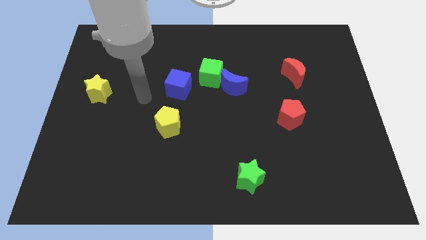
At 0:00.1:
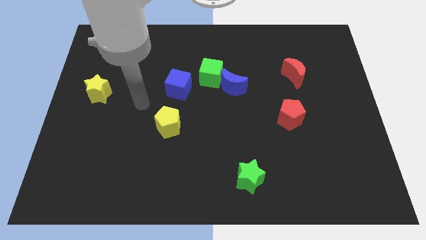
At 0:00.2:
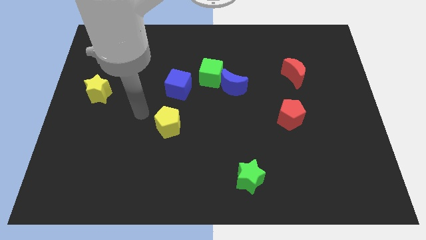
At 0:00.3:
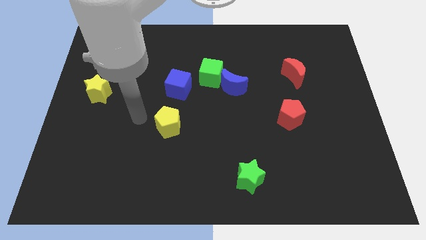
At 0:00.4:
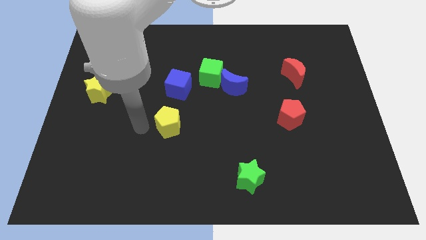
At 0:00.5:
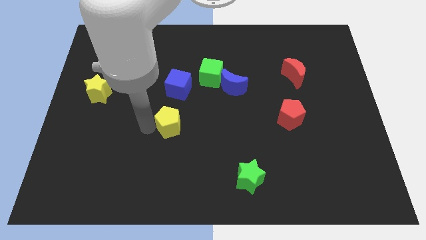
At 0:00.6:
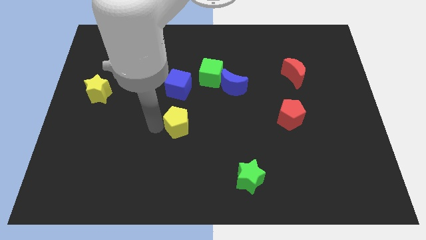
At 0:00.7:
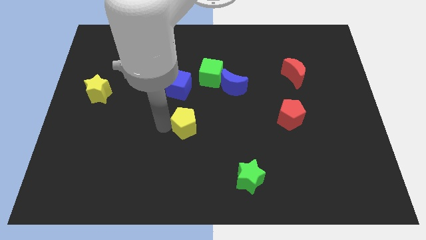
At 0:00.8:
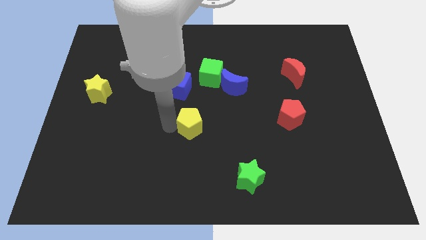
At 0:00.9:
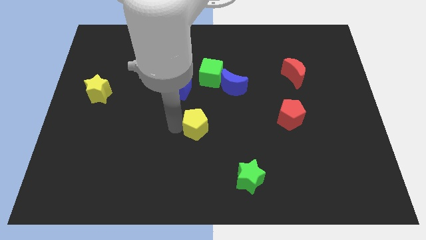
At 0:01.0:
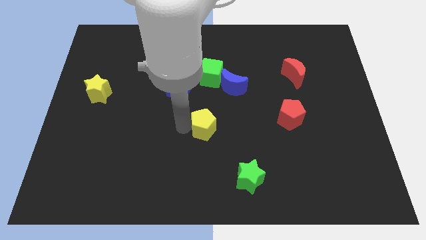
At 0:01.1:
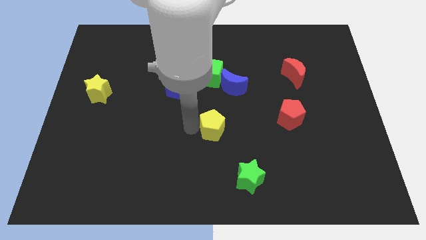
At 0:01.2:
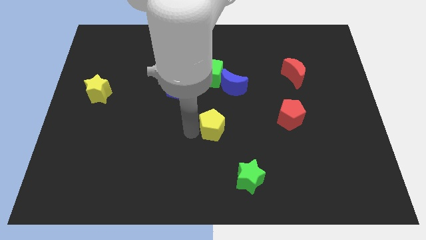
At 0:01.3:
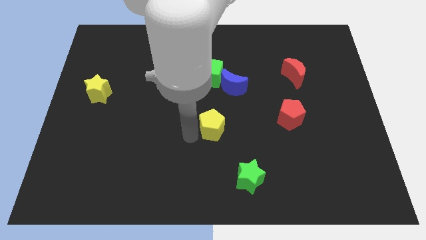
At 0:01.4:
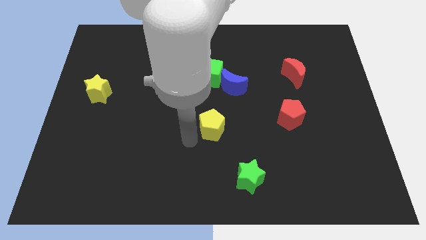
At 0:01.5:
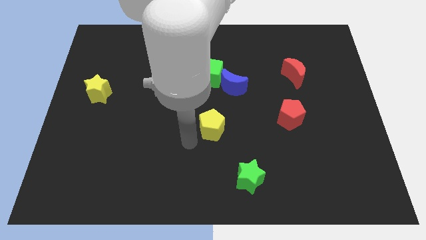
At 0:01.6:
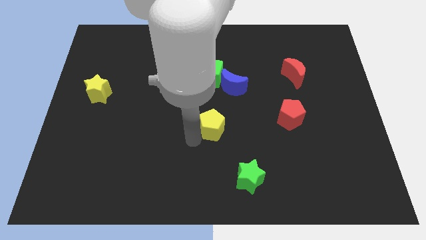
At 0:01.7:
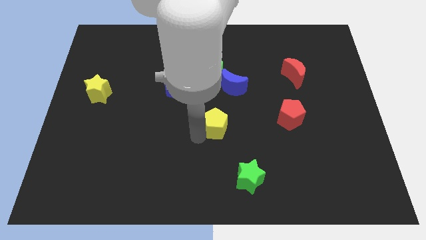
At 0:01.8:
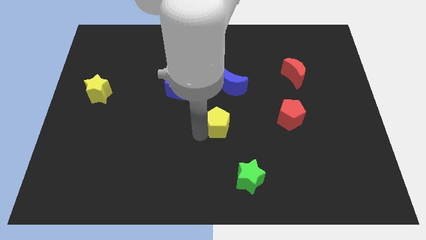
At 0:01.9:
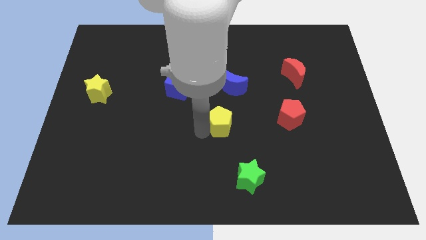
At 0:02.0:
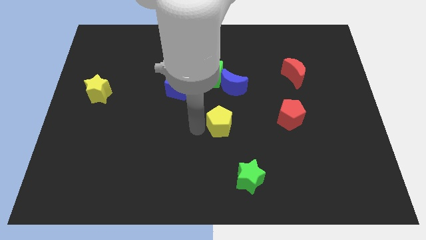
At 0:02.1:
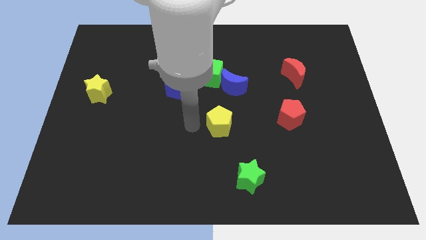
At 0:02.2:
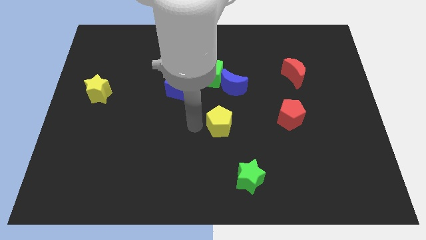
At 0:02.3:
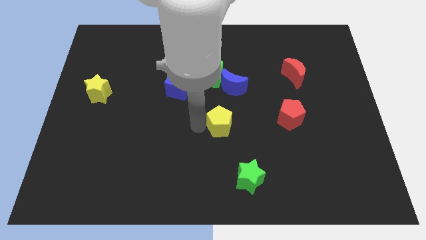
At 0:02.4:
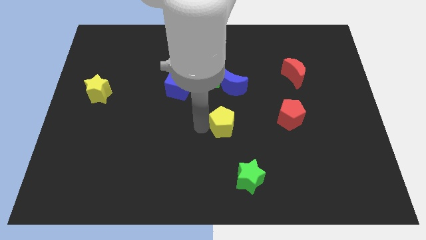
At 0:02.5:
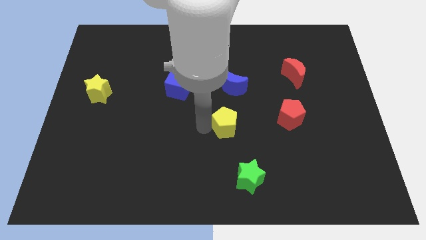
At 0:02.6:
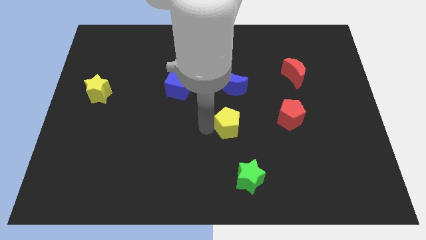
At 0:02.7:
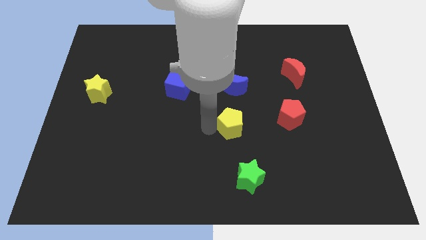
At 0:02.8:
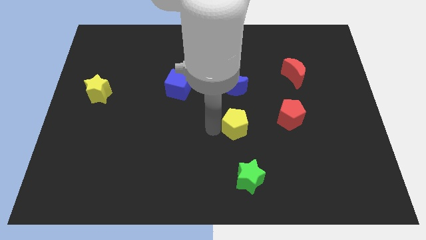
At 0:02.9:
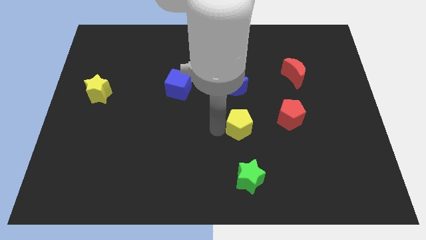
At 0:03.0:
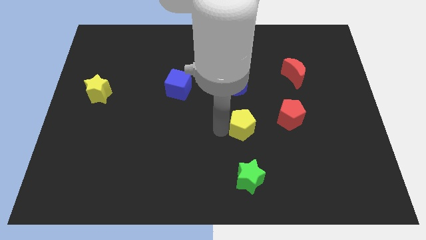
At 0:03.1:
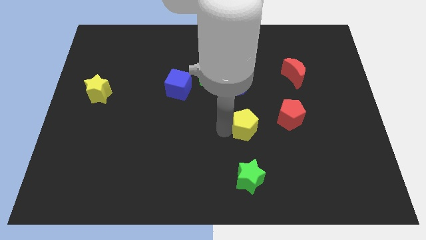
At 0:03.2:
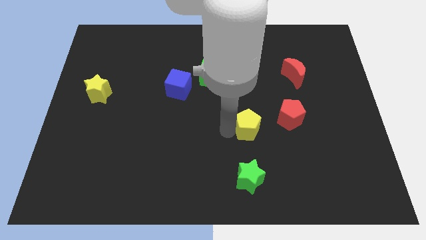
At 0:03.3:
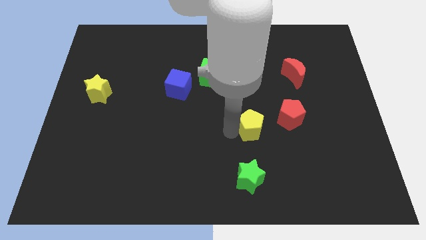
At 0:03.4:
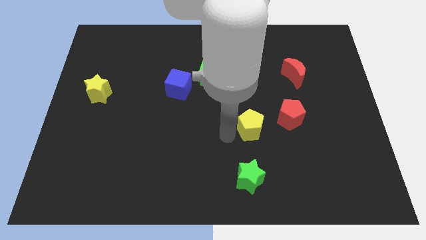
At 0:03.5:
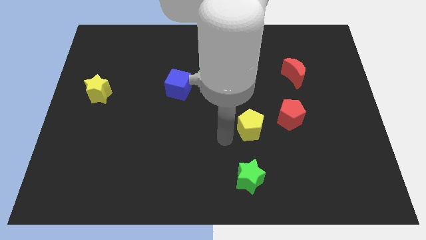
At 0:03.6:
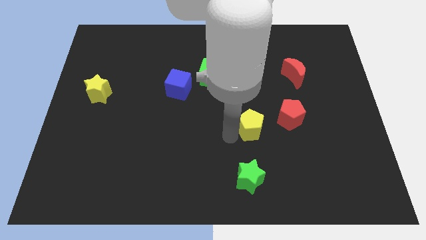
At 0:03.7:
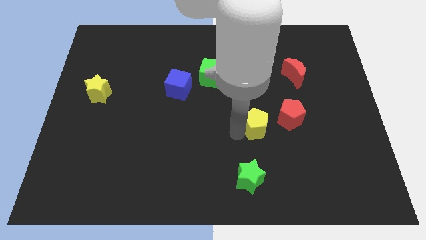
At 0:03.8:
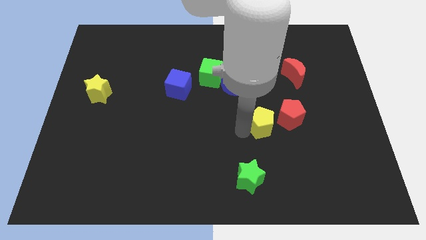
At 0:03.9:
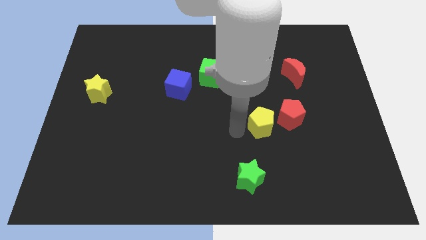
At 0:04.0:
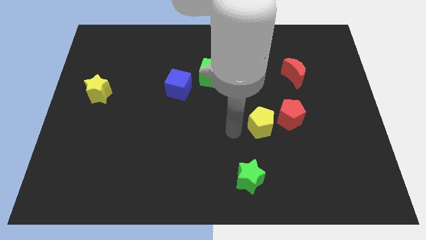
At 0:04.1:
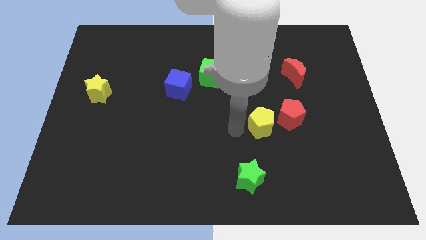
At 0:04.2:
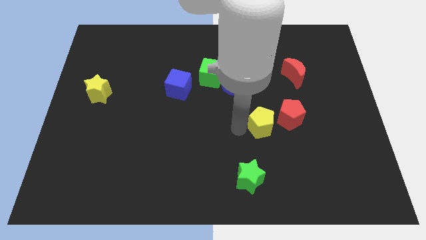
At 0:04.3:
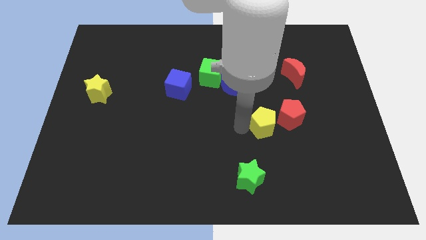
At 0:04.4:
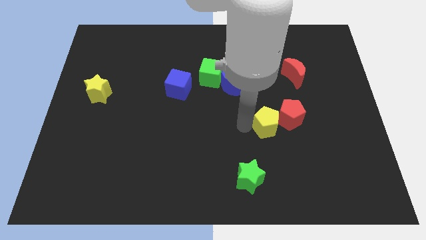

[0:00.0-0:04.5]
put the yellow pentagon to the red pentagon

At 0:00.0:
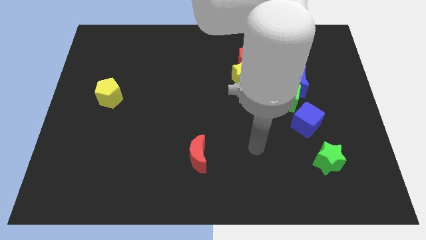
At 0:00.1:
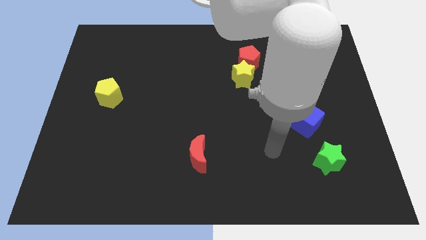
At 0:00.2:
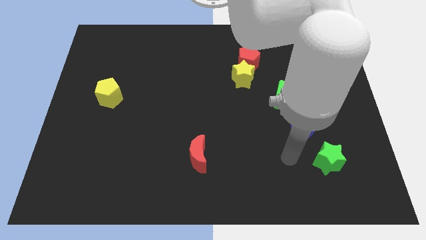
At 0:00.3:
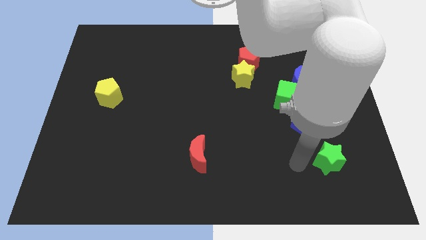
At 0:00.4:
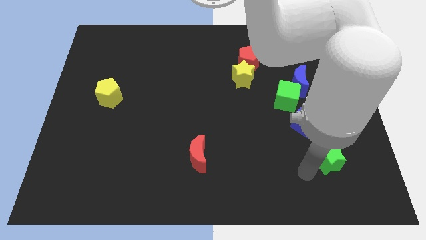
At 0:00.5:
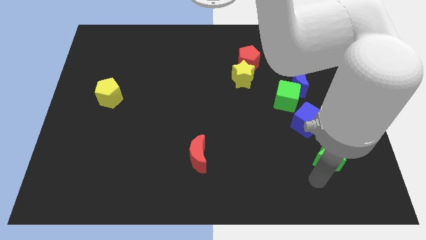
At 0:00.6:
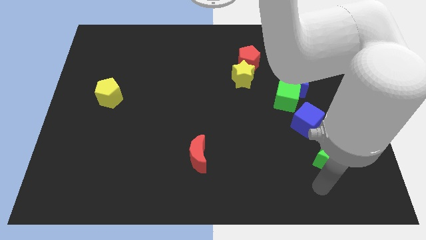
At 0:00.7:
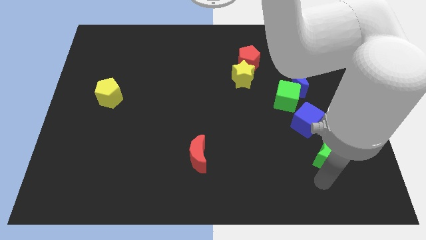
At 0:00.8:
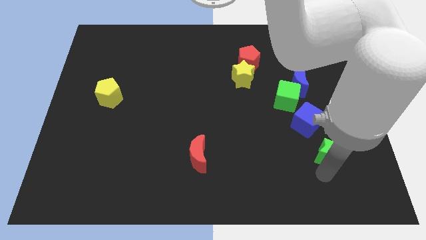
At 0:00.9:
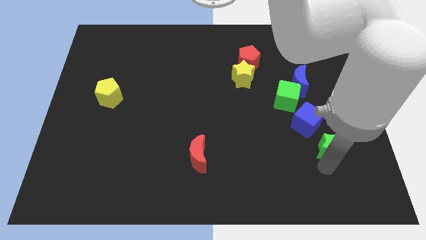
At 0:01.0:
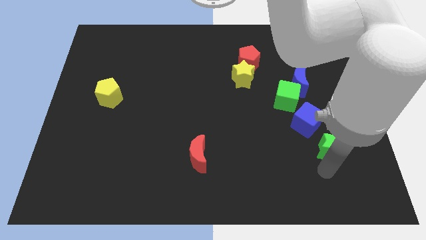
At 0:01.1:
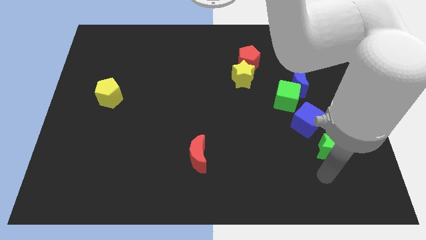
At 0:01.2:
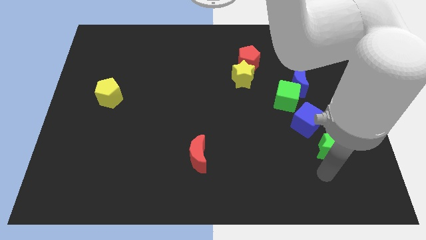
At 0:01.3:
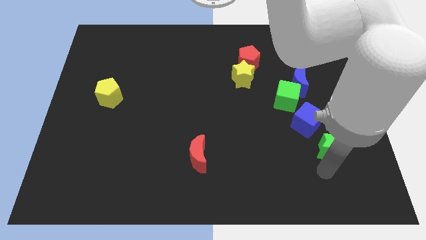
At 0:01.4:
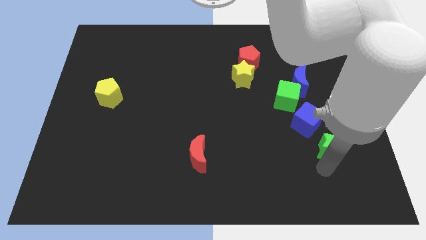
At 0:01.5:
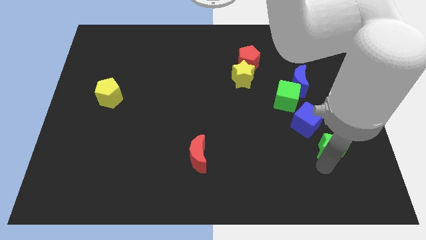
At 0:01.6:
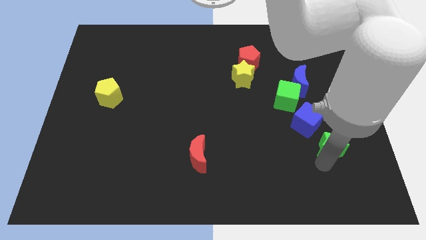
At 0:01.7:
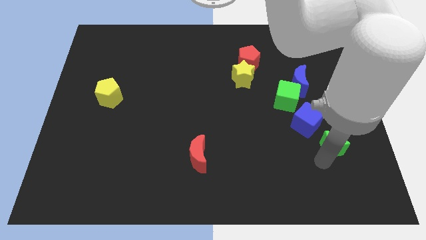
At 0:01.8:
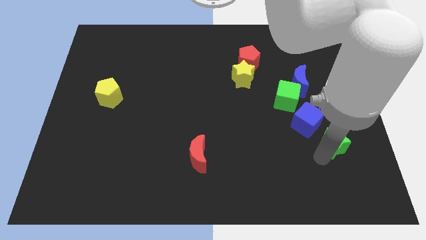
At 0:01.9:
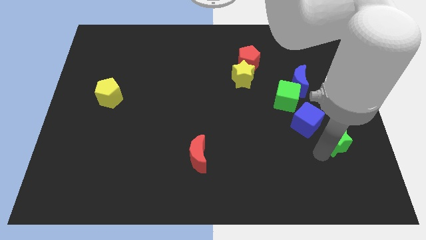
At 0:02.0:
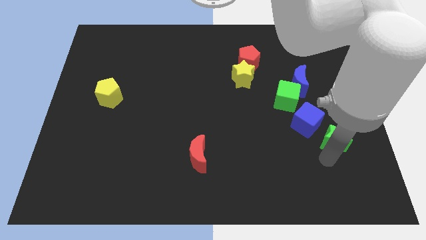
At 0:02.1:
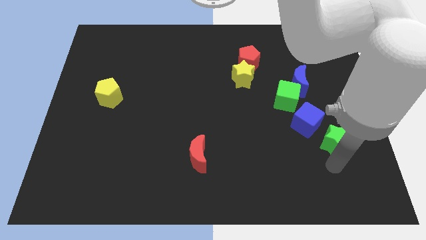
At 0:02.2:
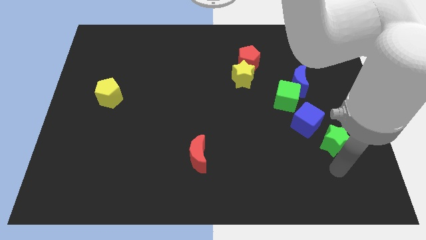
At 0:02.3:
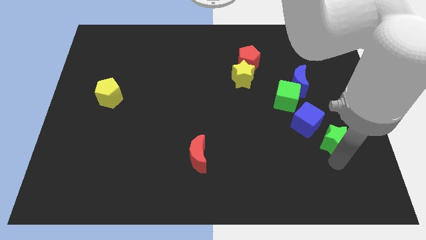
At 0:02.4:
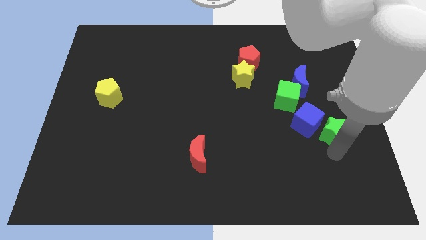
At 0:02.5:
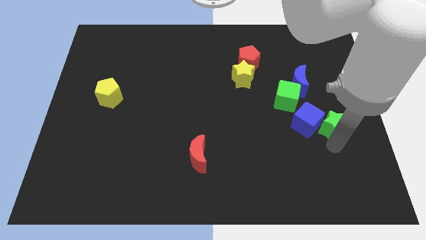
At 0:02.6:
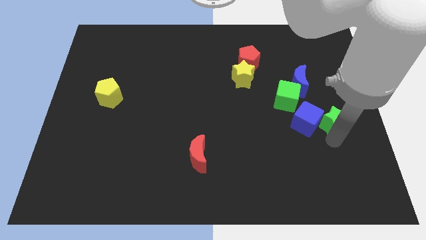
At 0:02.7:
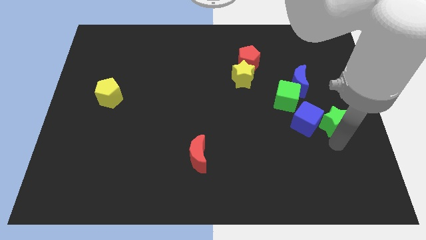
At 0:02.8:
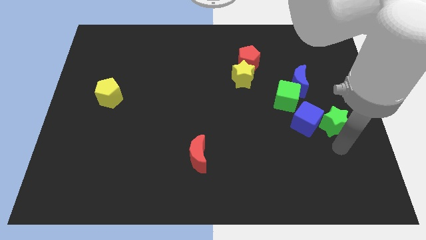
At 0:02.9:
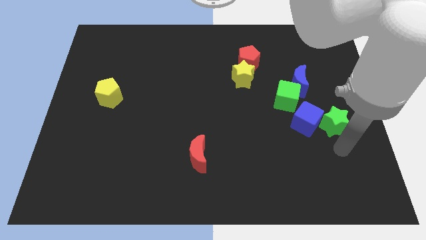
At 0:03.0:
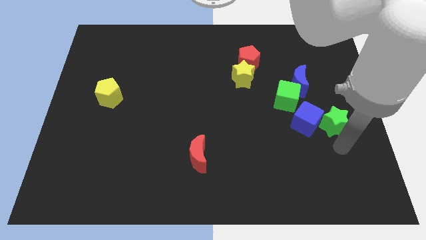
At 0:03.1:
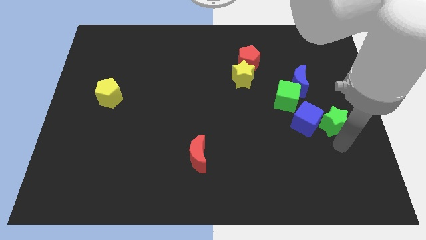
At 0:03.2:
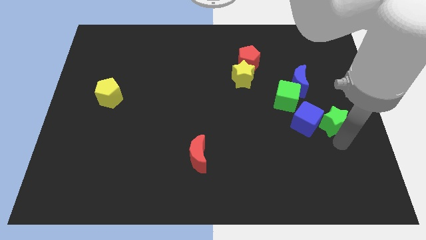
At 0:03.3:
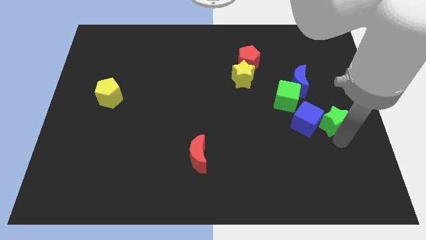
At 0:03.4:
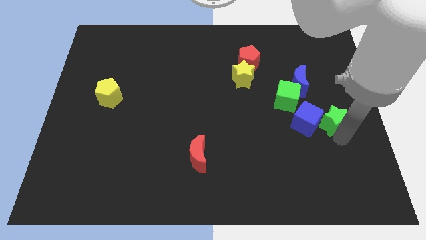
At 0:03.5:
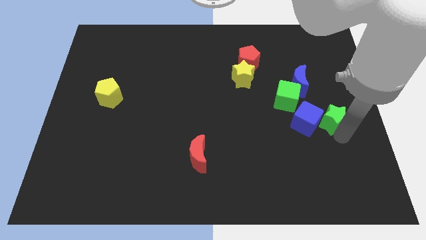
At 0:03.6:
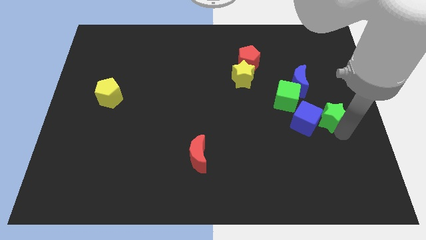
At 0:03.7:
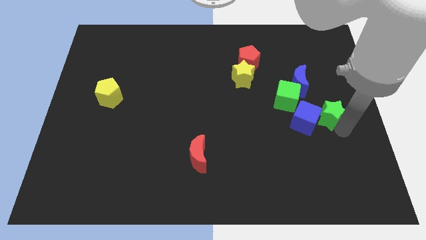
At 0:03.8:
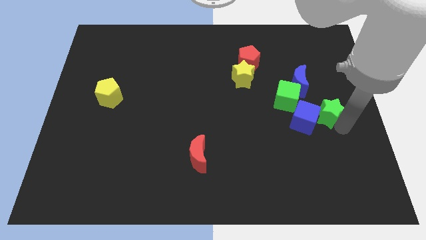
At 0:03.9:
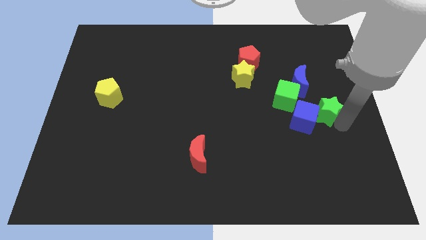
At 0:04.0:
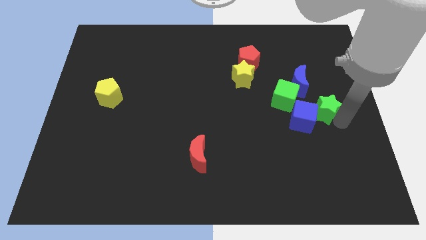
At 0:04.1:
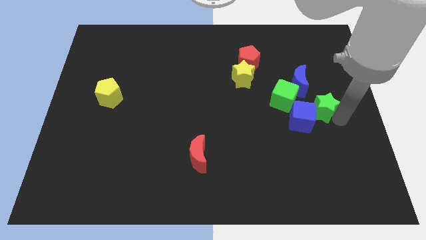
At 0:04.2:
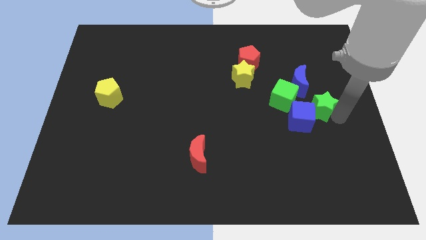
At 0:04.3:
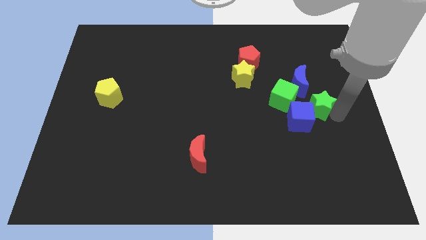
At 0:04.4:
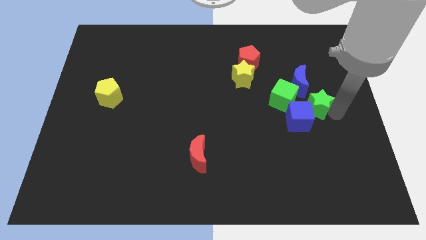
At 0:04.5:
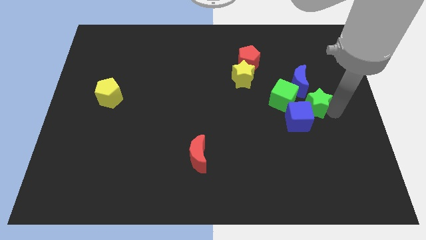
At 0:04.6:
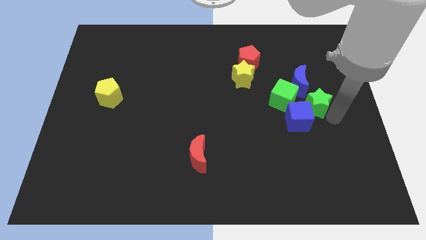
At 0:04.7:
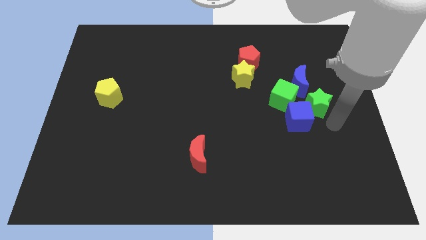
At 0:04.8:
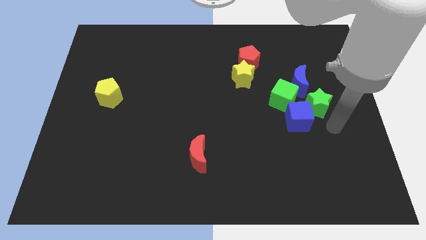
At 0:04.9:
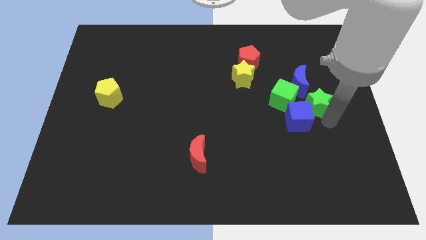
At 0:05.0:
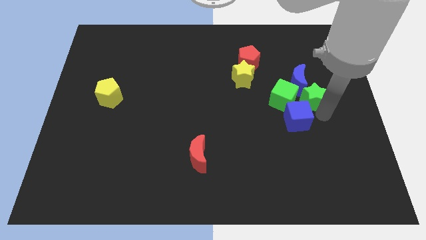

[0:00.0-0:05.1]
slide the green star close to the blue moon
